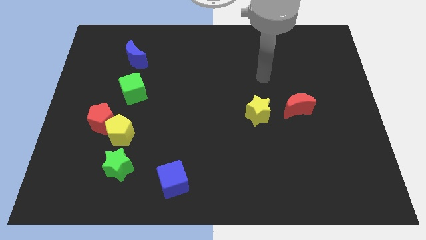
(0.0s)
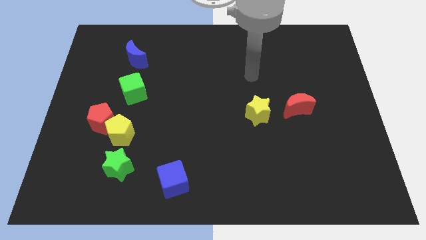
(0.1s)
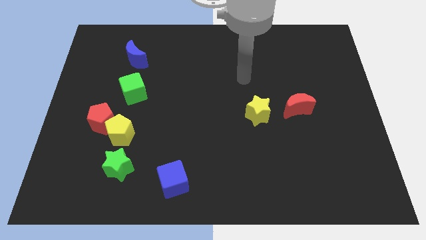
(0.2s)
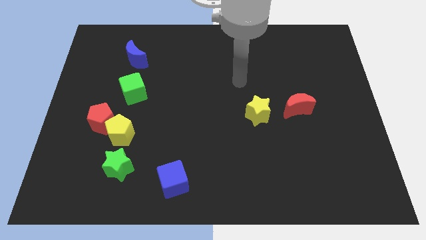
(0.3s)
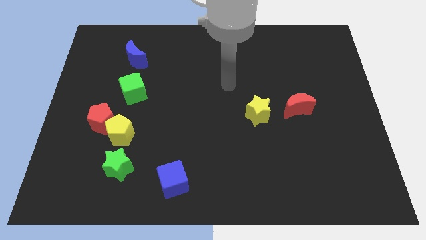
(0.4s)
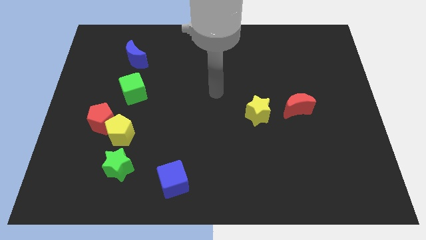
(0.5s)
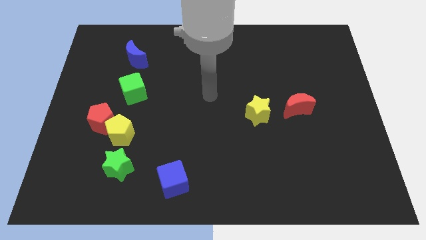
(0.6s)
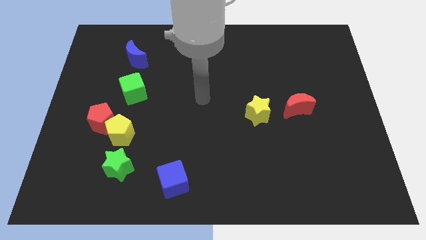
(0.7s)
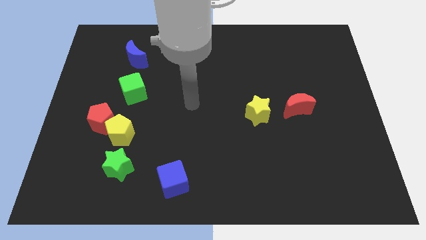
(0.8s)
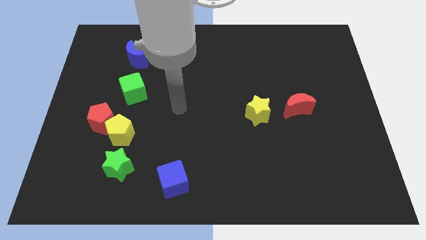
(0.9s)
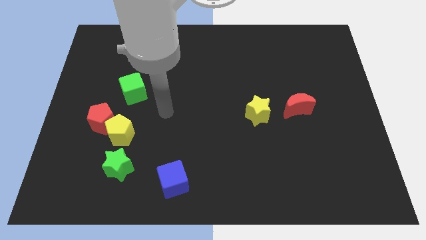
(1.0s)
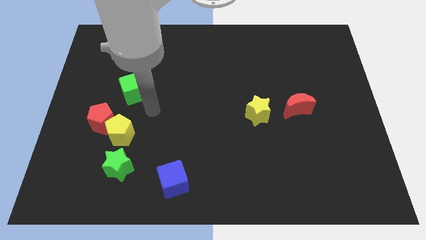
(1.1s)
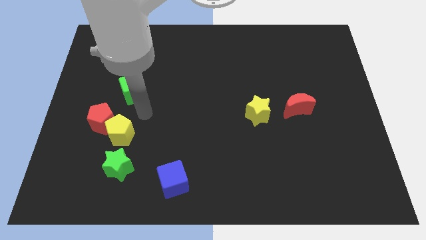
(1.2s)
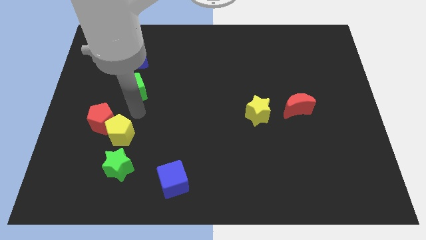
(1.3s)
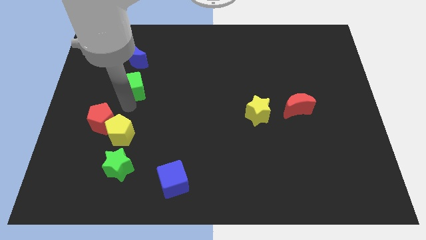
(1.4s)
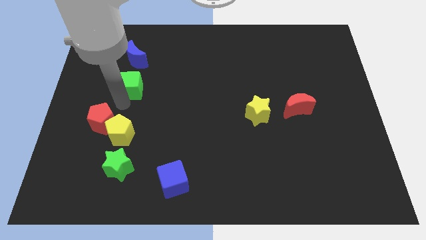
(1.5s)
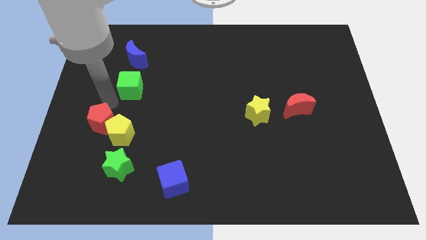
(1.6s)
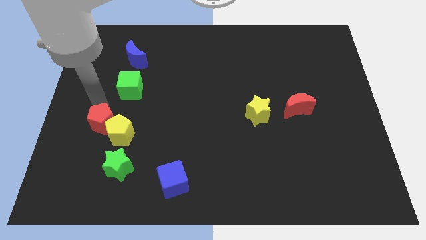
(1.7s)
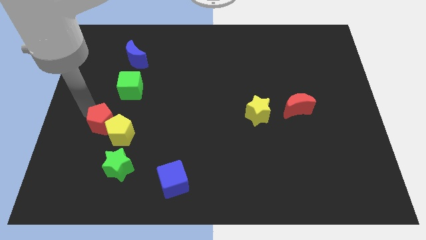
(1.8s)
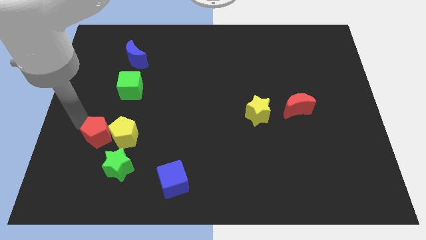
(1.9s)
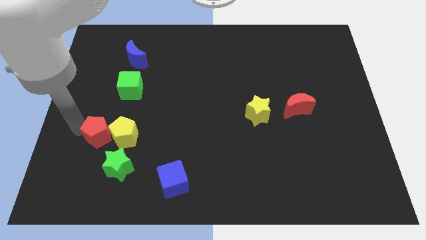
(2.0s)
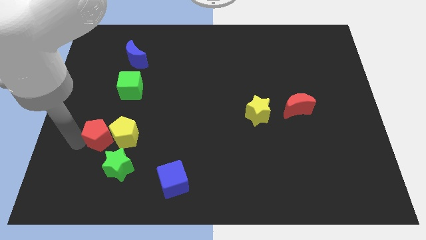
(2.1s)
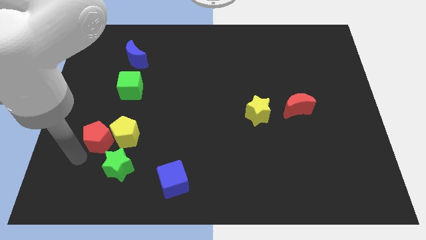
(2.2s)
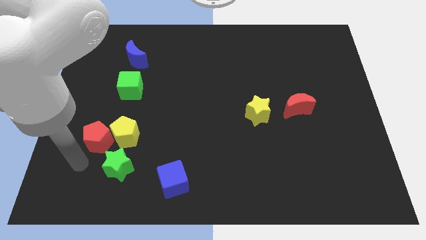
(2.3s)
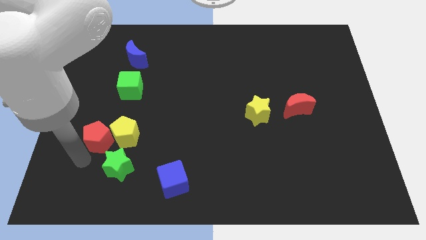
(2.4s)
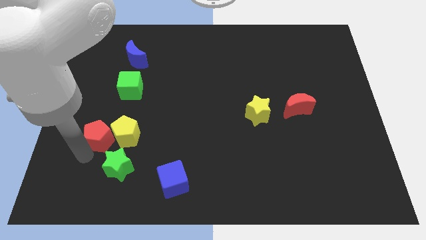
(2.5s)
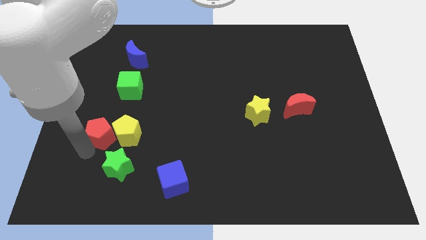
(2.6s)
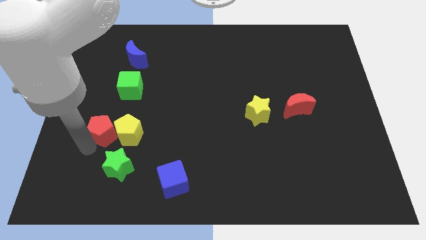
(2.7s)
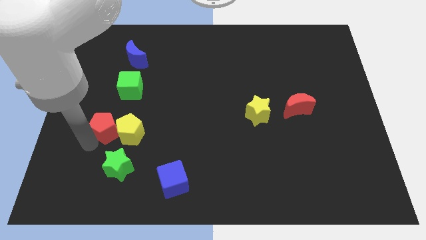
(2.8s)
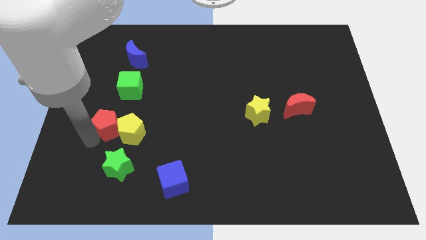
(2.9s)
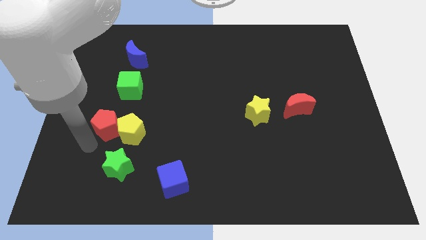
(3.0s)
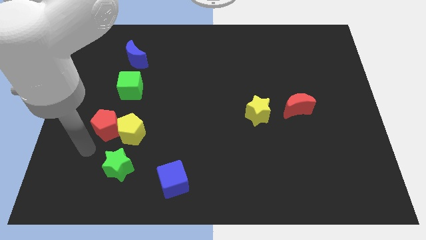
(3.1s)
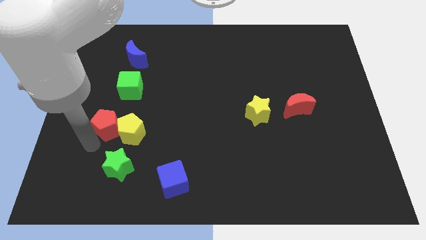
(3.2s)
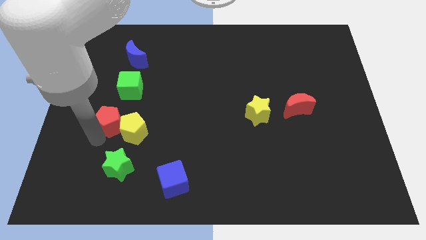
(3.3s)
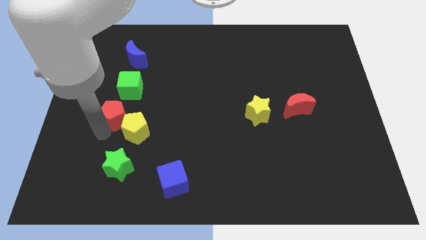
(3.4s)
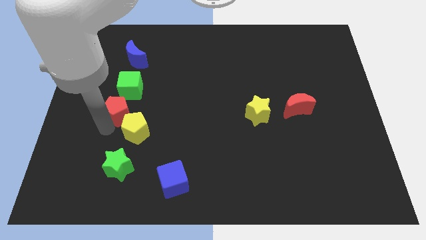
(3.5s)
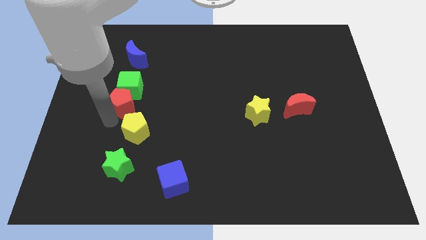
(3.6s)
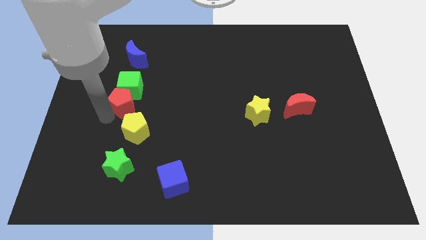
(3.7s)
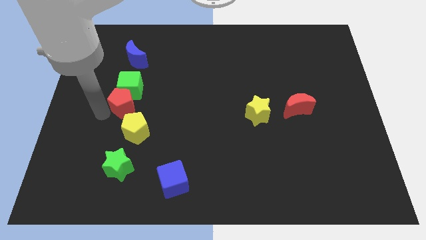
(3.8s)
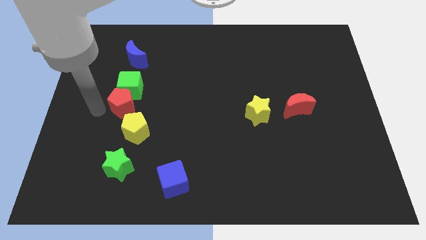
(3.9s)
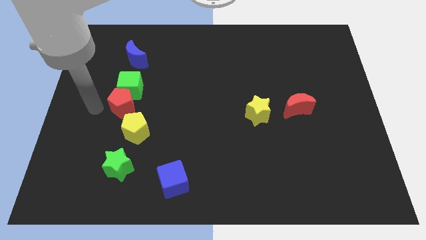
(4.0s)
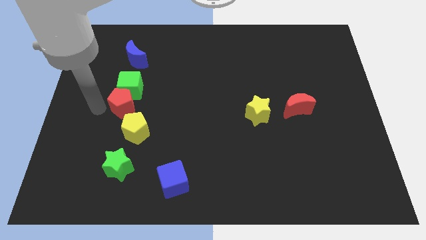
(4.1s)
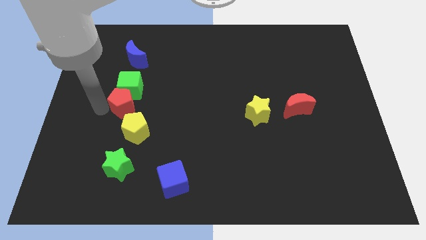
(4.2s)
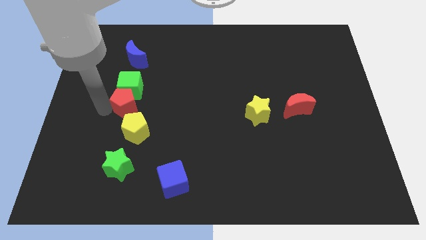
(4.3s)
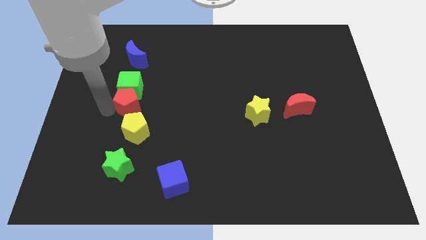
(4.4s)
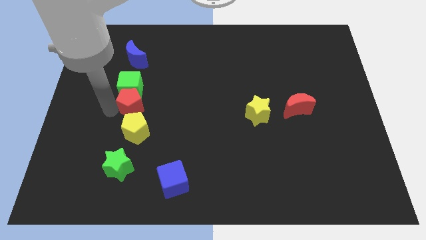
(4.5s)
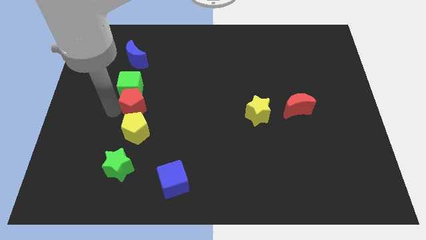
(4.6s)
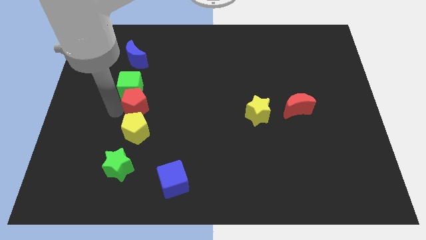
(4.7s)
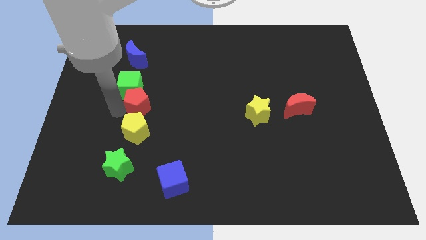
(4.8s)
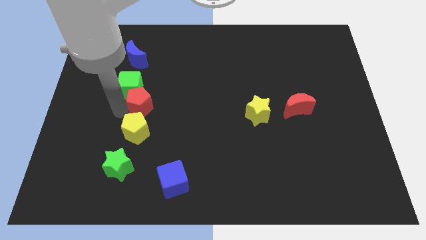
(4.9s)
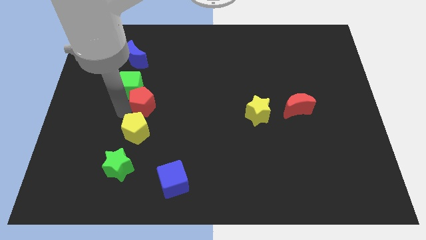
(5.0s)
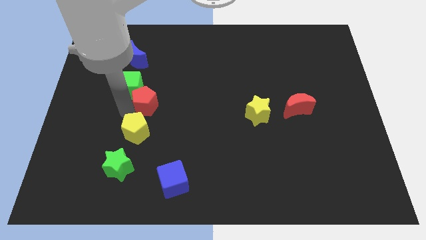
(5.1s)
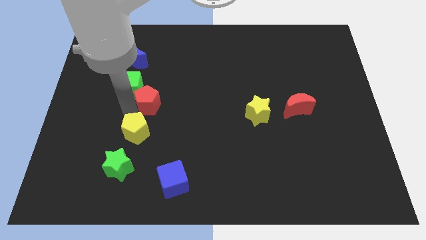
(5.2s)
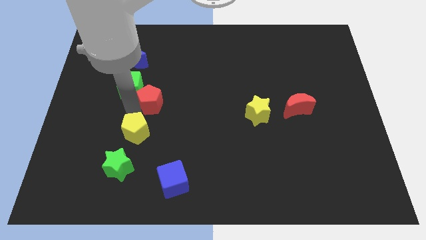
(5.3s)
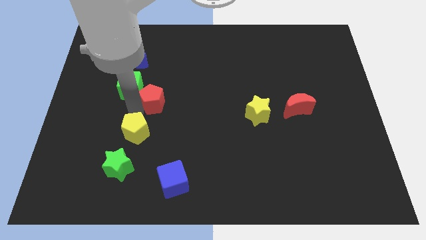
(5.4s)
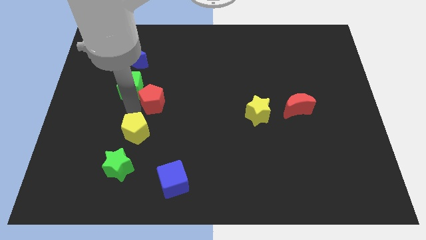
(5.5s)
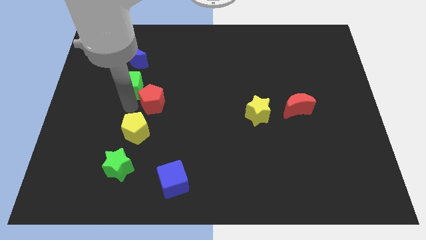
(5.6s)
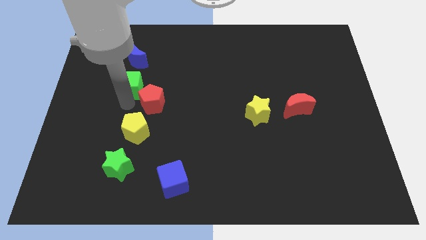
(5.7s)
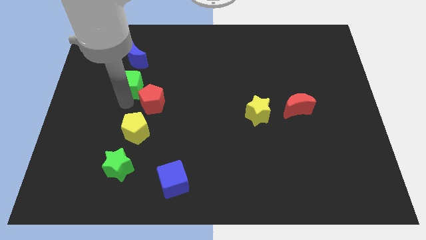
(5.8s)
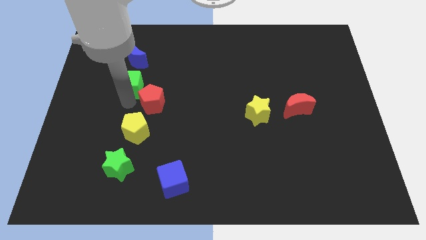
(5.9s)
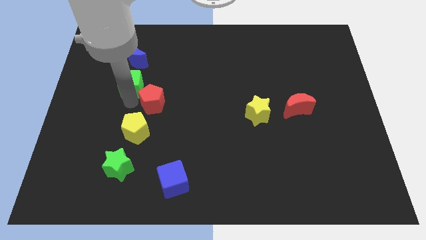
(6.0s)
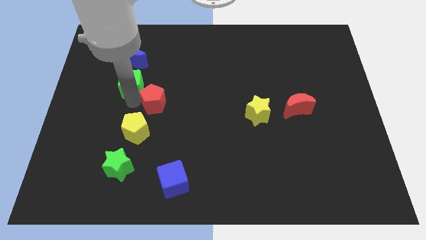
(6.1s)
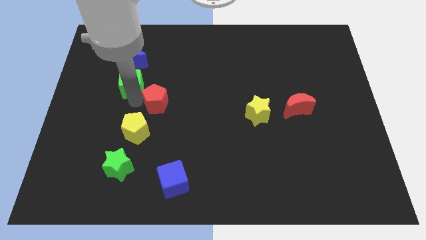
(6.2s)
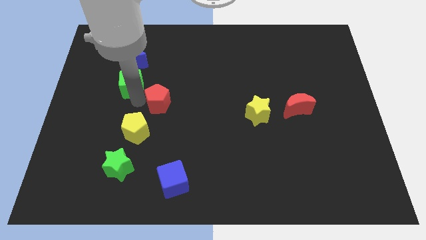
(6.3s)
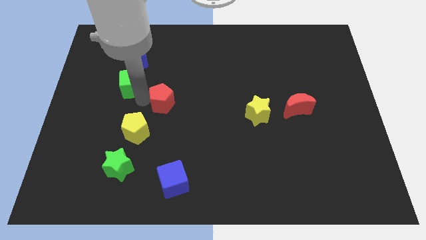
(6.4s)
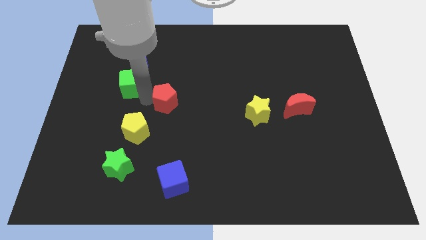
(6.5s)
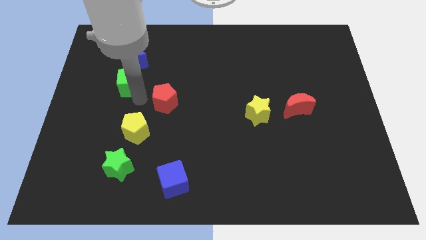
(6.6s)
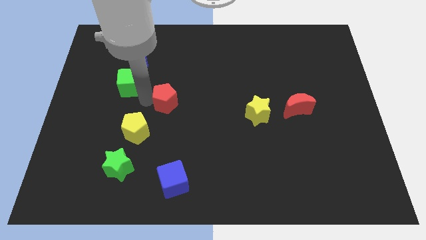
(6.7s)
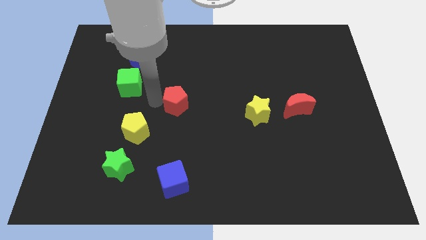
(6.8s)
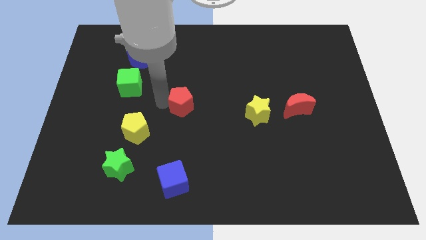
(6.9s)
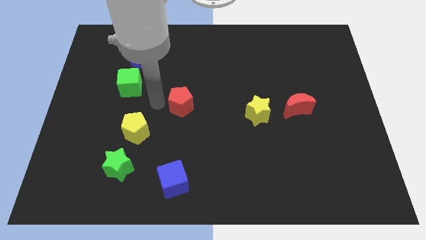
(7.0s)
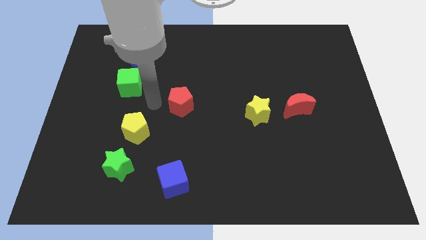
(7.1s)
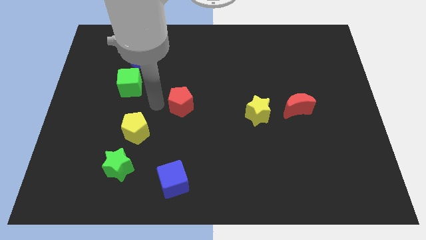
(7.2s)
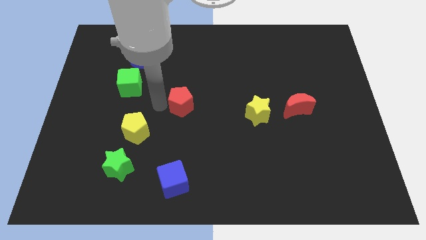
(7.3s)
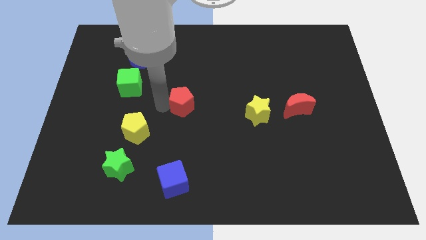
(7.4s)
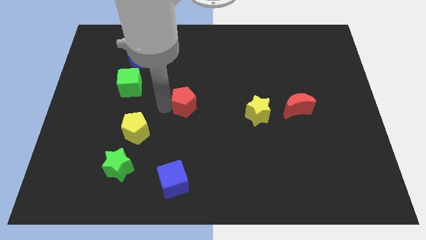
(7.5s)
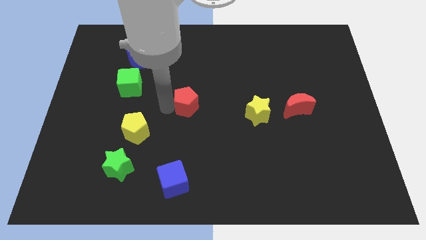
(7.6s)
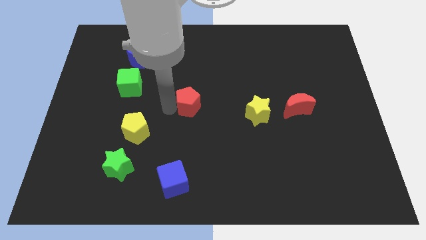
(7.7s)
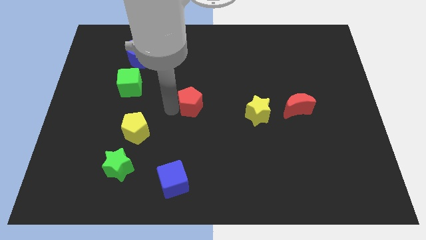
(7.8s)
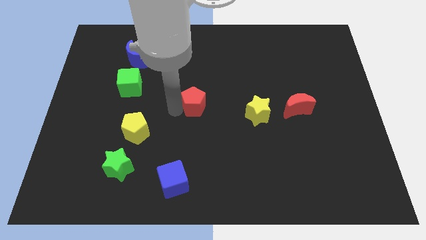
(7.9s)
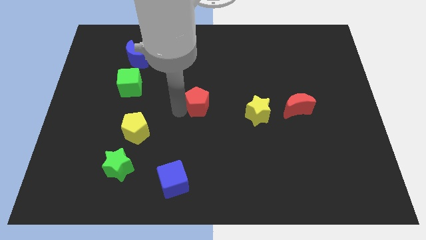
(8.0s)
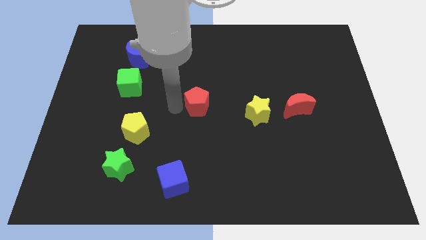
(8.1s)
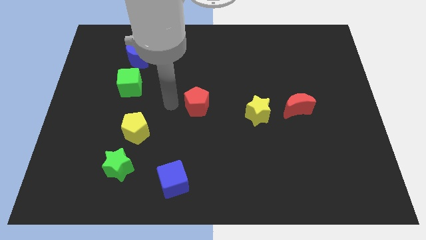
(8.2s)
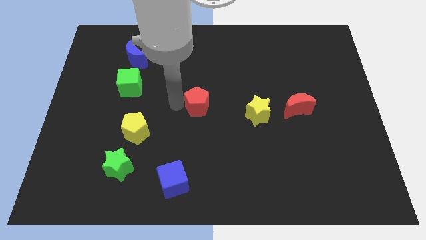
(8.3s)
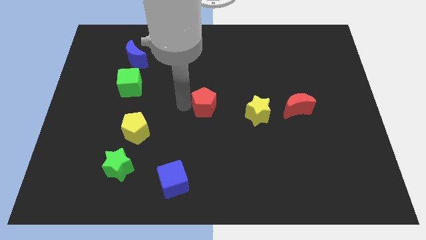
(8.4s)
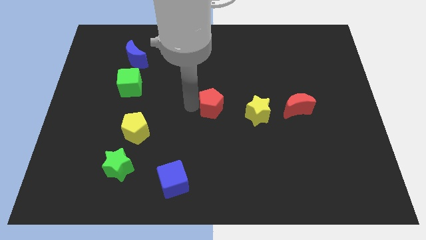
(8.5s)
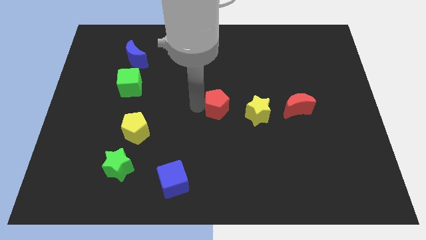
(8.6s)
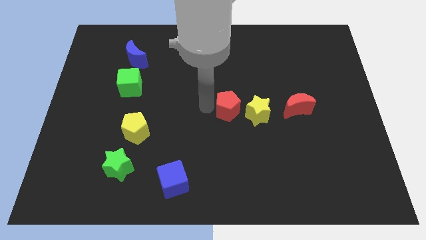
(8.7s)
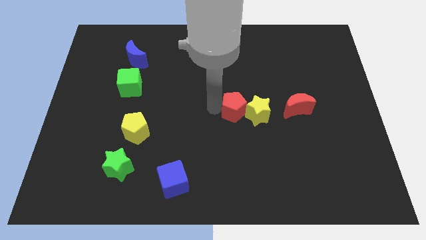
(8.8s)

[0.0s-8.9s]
push the red pentagon to the yellow star
